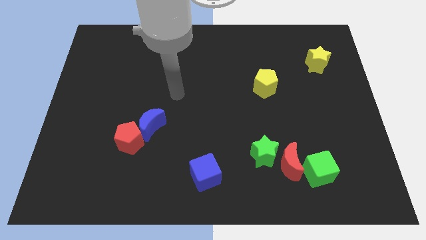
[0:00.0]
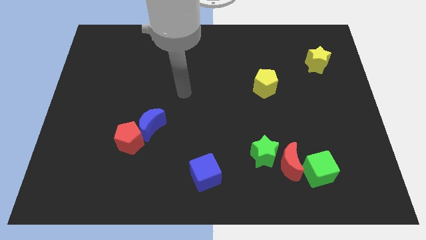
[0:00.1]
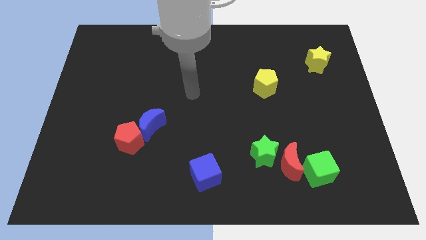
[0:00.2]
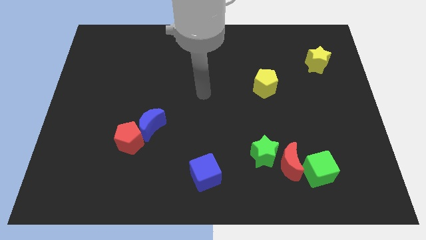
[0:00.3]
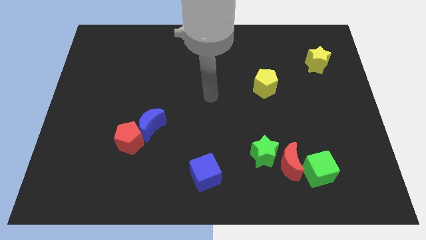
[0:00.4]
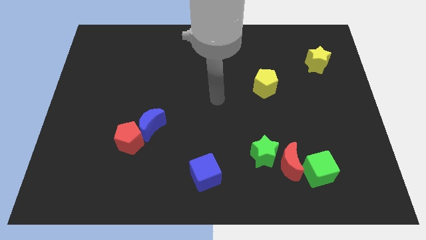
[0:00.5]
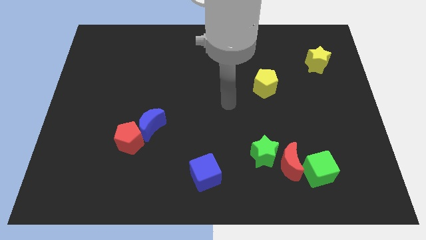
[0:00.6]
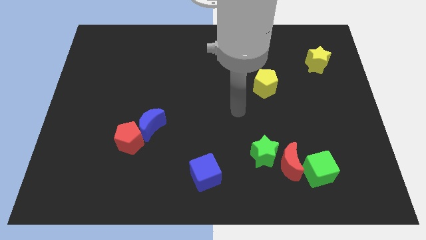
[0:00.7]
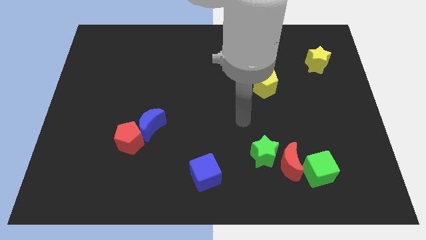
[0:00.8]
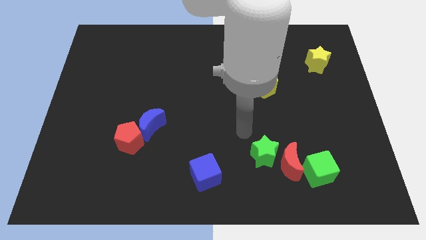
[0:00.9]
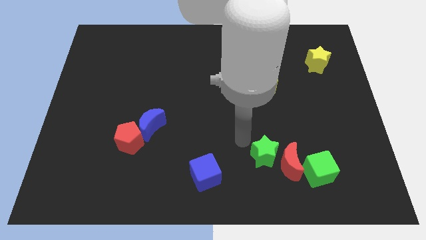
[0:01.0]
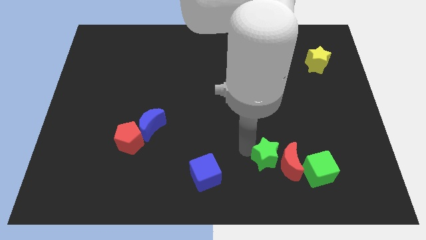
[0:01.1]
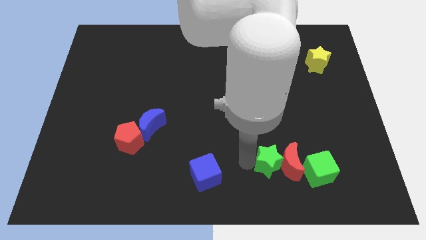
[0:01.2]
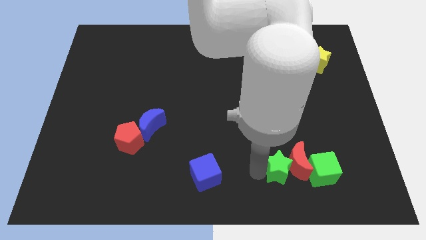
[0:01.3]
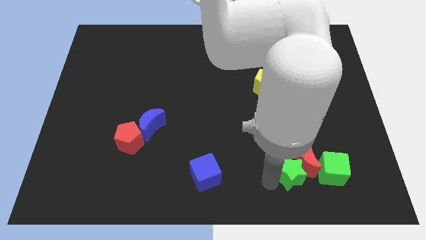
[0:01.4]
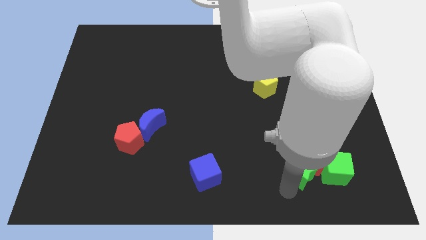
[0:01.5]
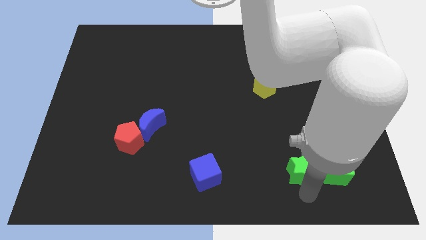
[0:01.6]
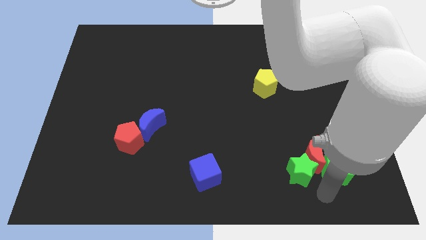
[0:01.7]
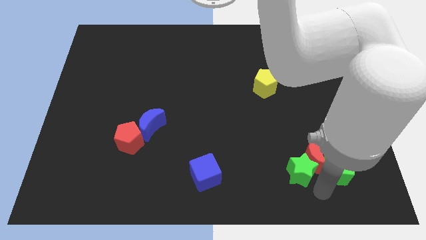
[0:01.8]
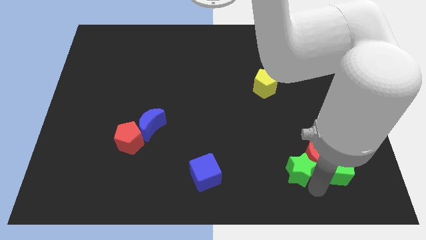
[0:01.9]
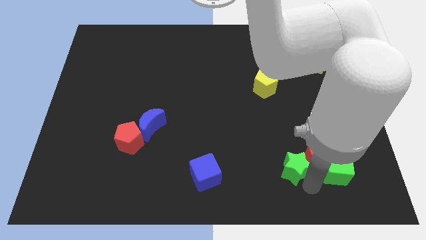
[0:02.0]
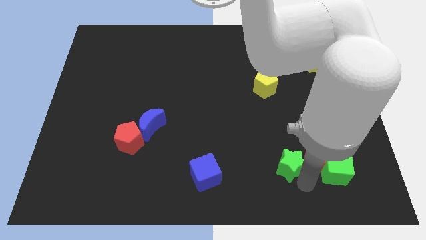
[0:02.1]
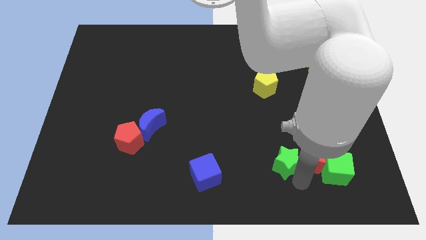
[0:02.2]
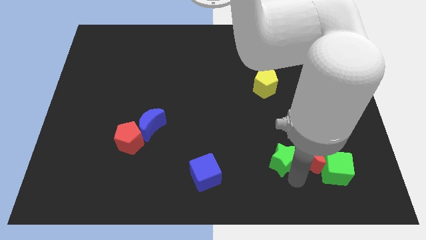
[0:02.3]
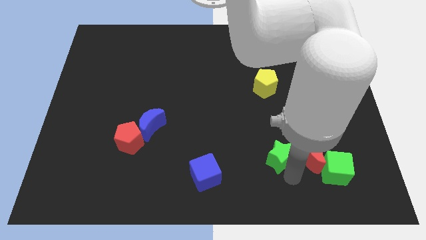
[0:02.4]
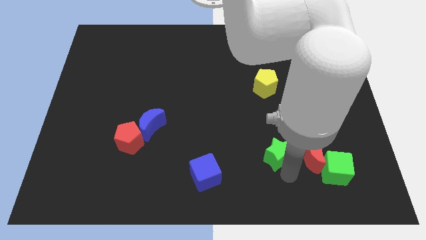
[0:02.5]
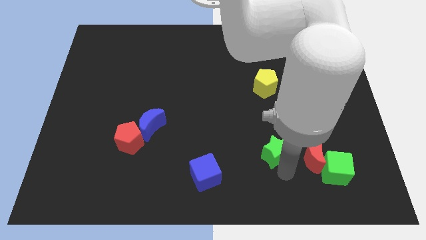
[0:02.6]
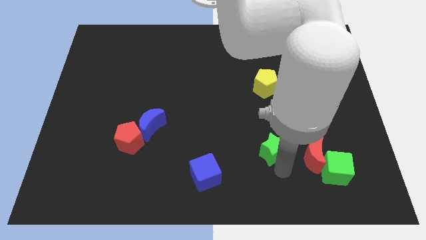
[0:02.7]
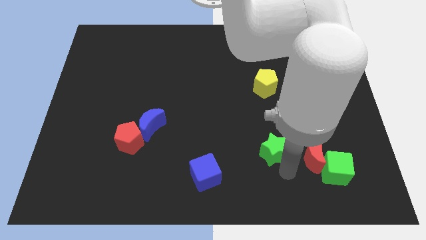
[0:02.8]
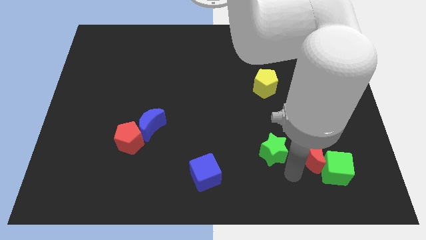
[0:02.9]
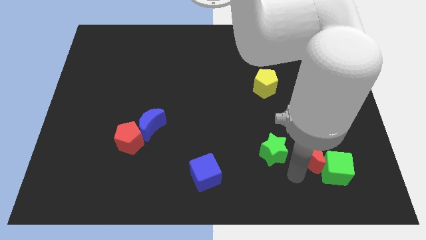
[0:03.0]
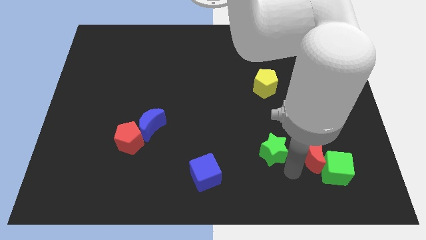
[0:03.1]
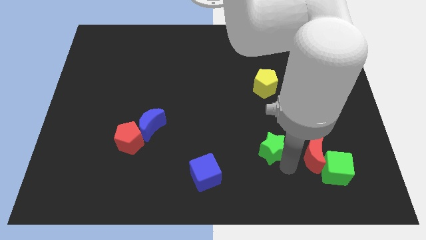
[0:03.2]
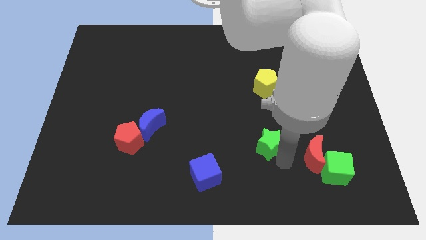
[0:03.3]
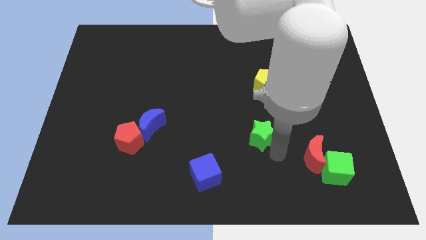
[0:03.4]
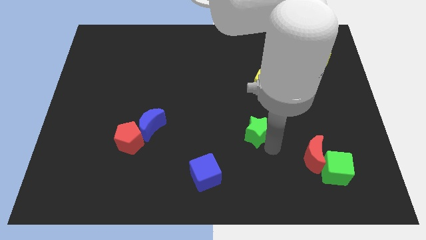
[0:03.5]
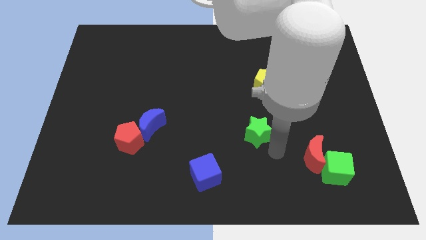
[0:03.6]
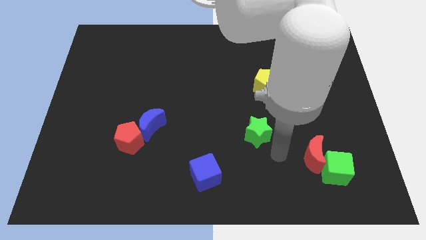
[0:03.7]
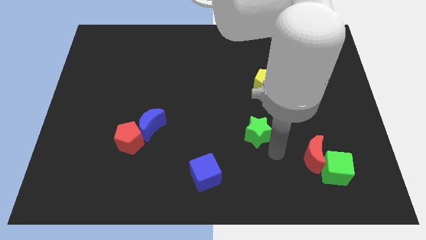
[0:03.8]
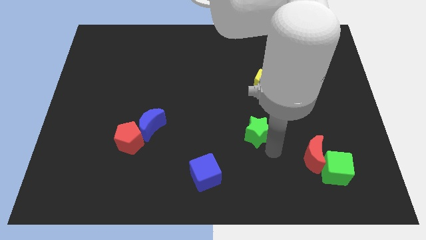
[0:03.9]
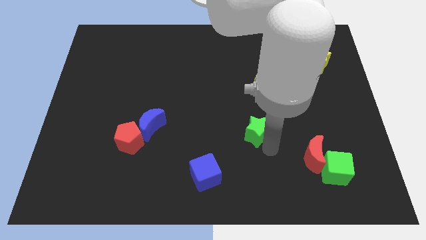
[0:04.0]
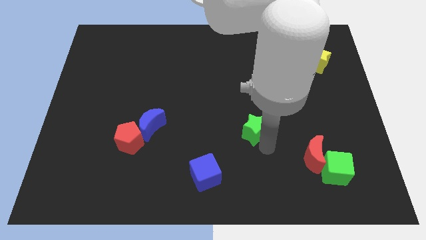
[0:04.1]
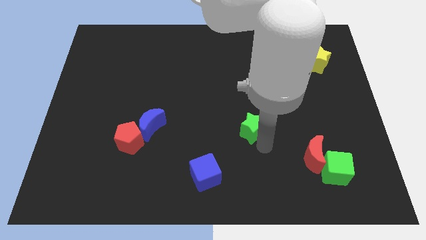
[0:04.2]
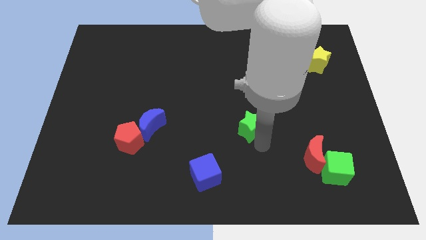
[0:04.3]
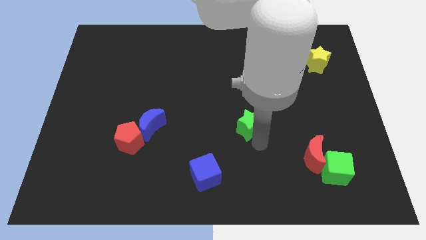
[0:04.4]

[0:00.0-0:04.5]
move the green star diagonally upwards and to the left somewhat

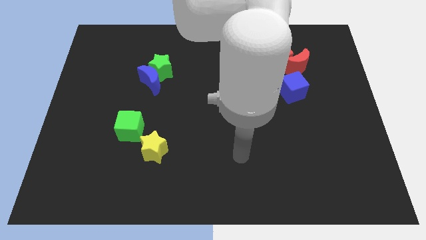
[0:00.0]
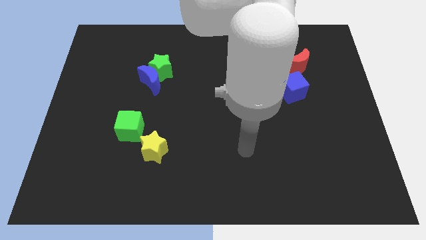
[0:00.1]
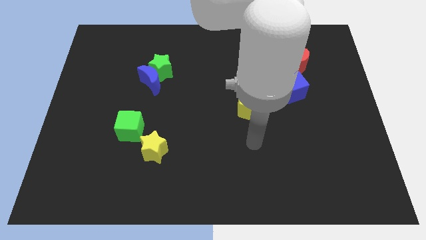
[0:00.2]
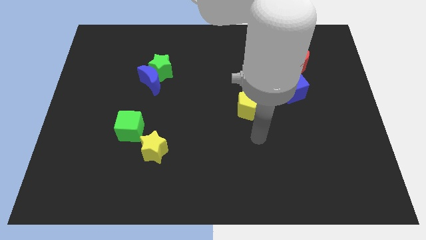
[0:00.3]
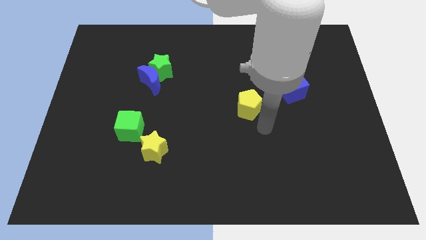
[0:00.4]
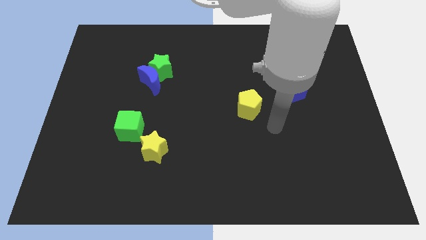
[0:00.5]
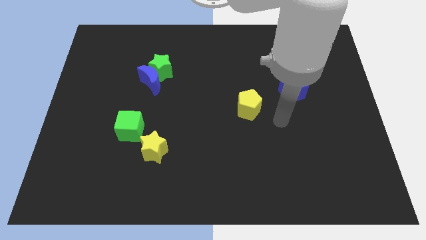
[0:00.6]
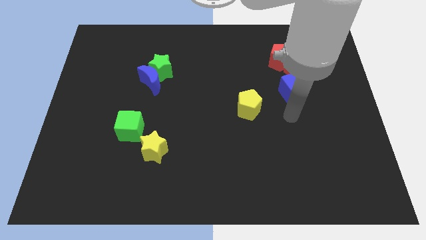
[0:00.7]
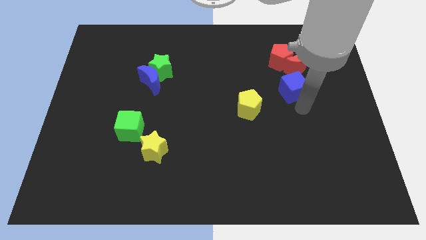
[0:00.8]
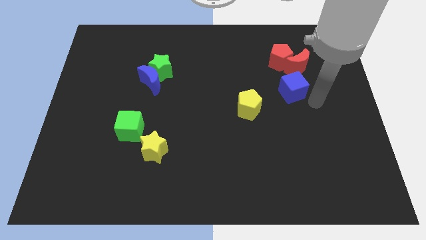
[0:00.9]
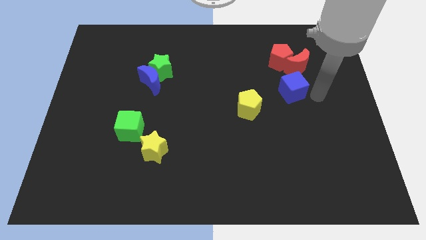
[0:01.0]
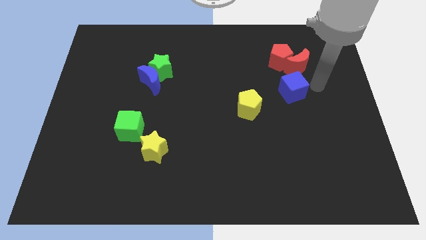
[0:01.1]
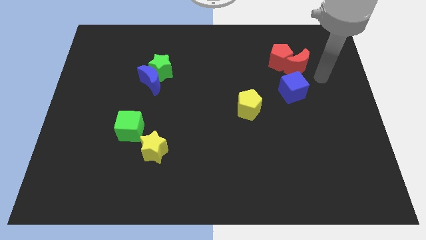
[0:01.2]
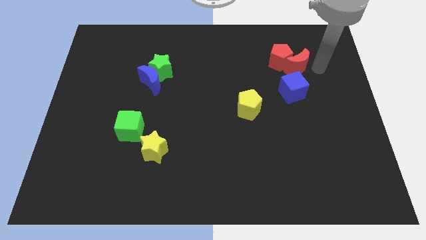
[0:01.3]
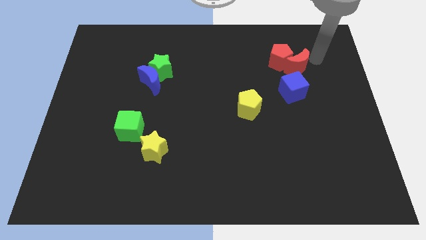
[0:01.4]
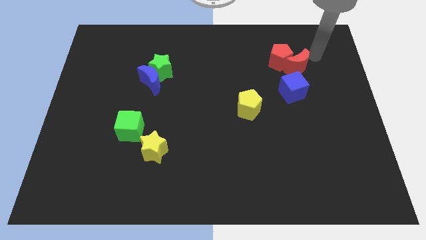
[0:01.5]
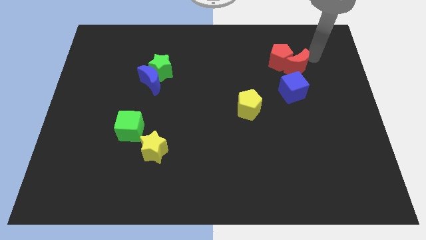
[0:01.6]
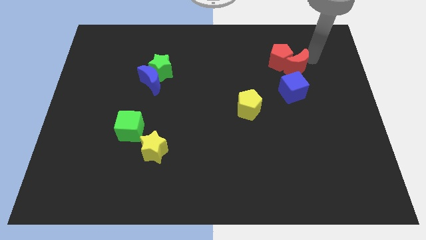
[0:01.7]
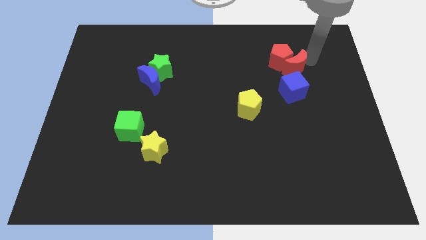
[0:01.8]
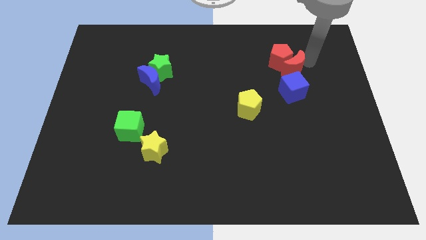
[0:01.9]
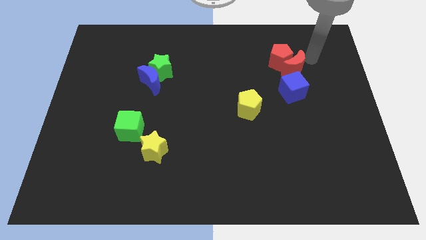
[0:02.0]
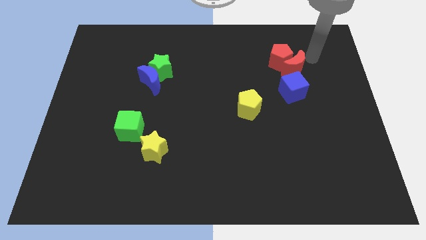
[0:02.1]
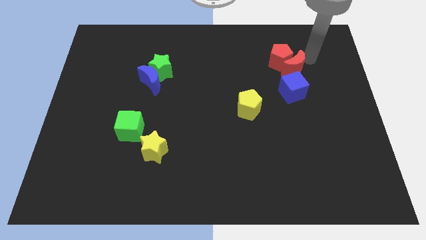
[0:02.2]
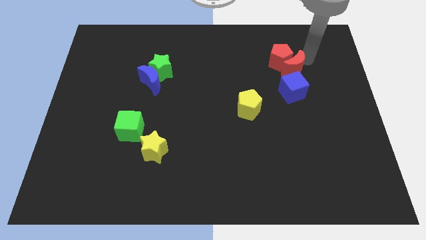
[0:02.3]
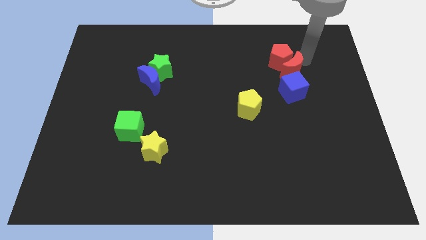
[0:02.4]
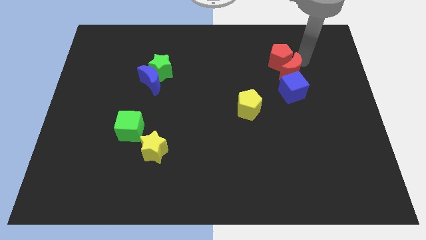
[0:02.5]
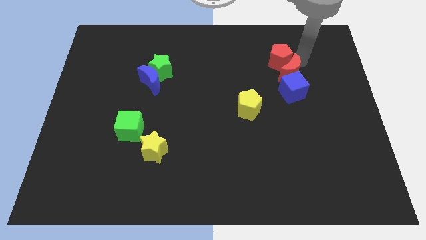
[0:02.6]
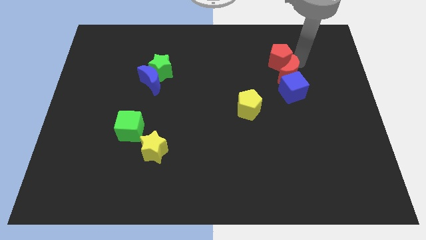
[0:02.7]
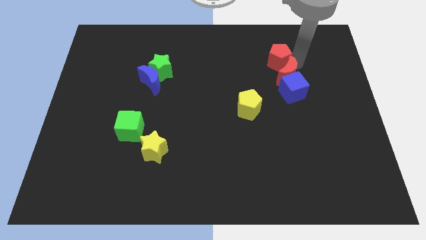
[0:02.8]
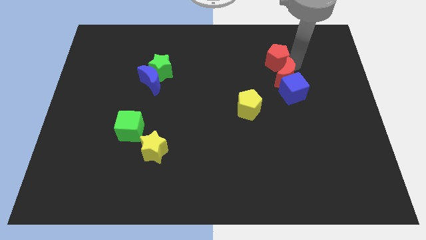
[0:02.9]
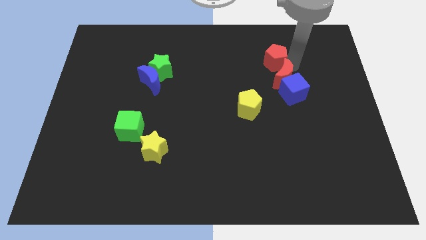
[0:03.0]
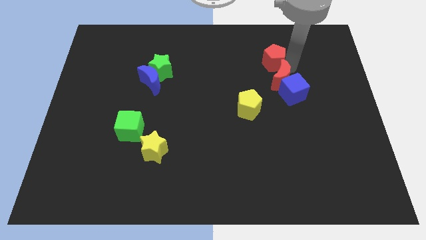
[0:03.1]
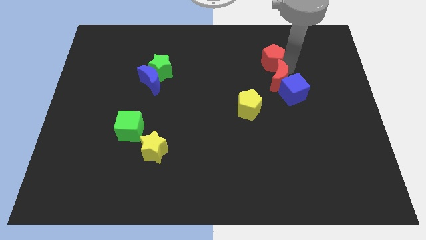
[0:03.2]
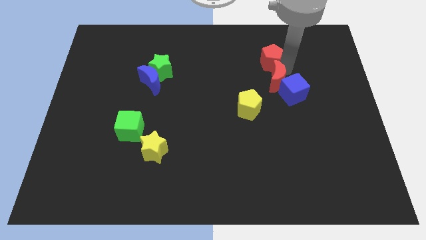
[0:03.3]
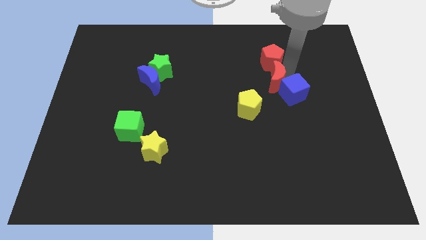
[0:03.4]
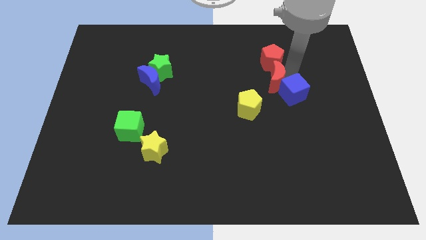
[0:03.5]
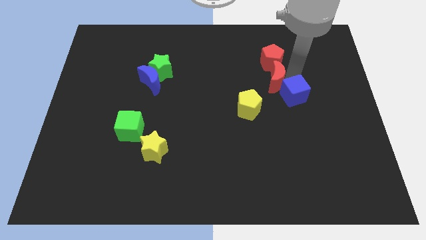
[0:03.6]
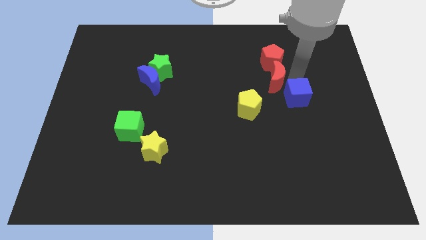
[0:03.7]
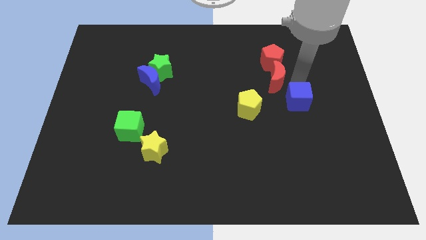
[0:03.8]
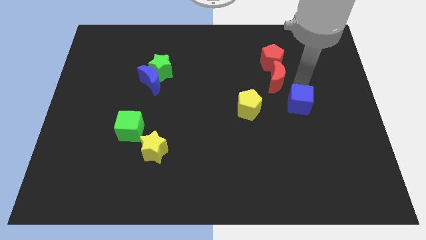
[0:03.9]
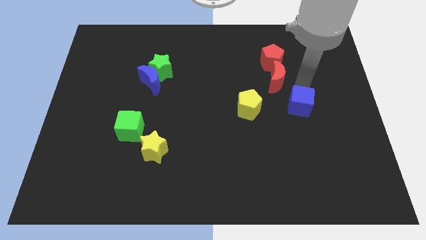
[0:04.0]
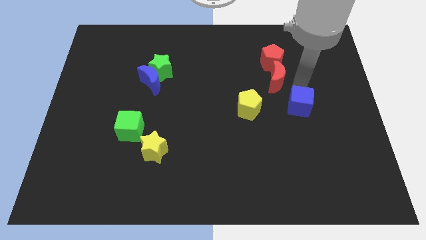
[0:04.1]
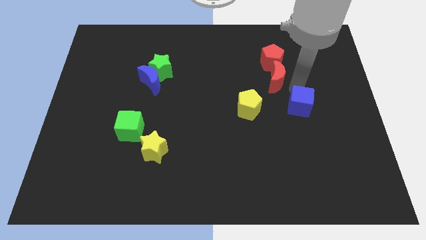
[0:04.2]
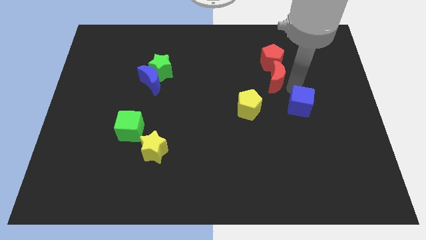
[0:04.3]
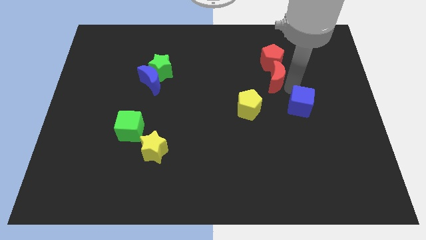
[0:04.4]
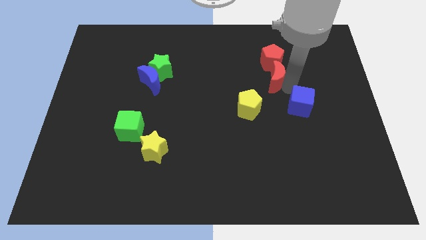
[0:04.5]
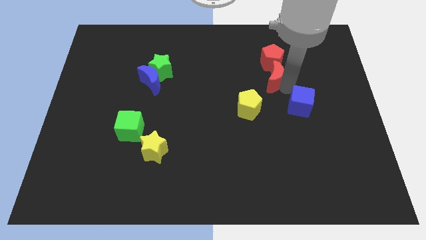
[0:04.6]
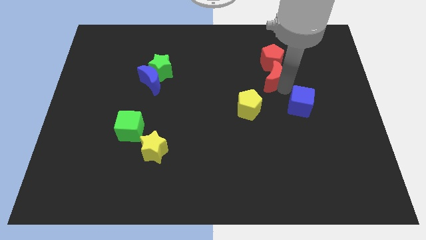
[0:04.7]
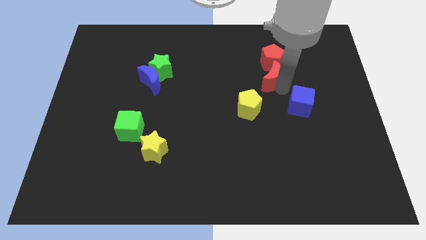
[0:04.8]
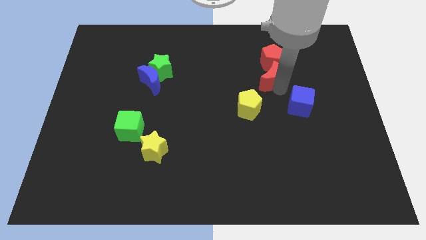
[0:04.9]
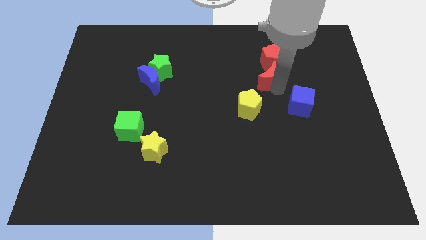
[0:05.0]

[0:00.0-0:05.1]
slide the red moon left slightly
